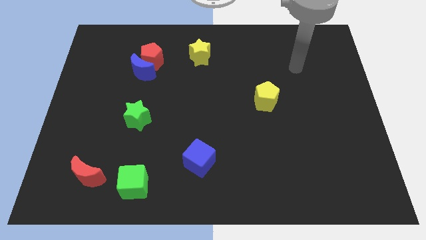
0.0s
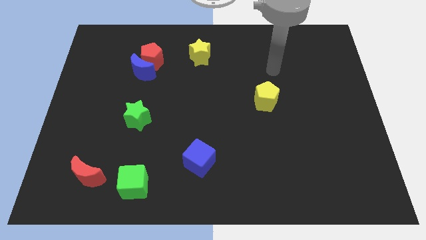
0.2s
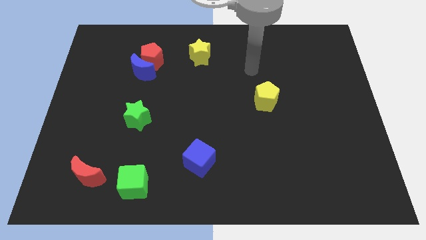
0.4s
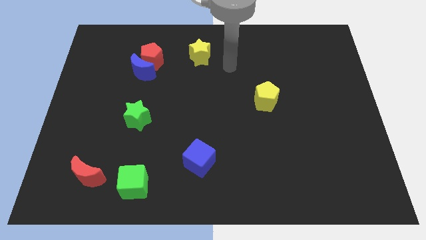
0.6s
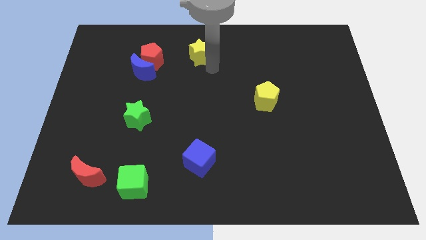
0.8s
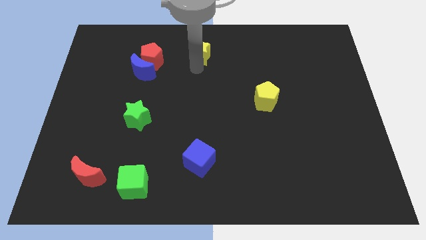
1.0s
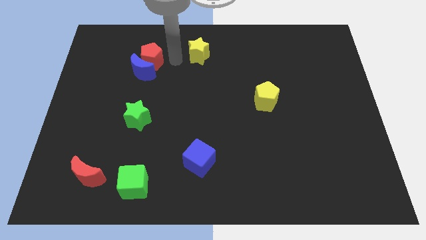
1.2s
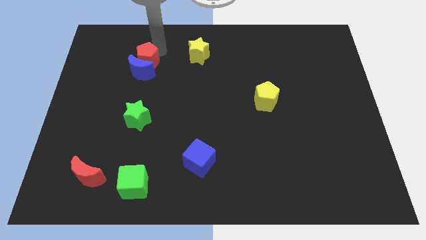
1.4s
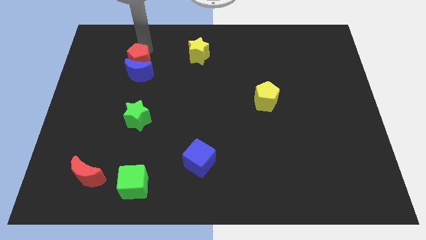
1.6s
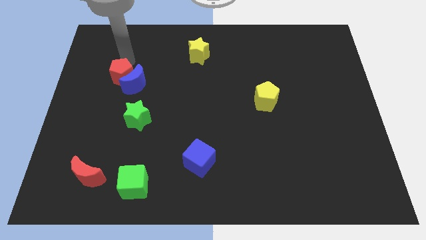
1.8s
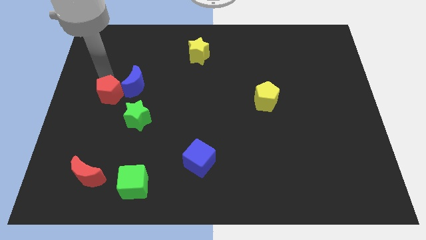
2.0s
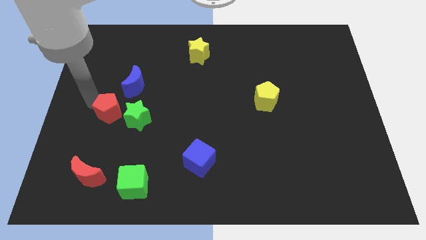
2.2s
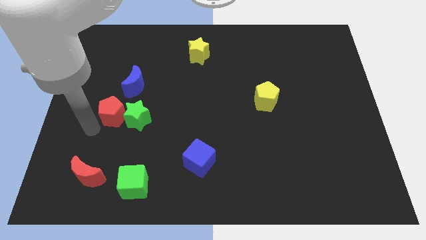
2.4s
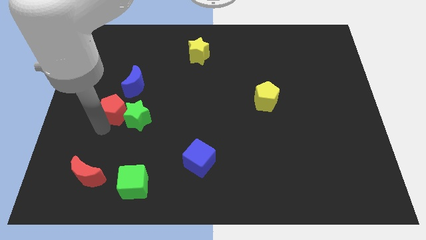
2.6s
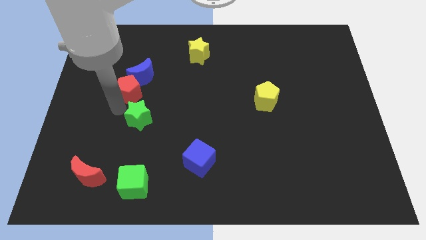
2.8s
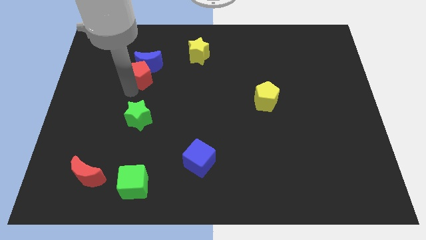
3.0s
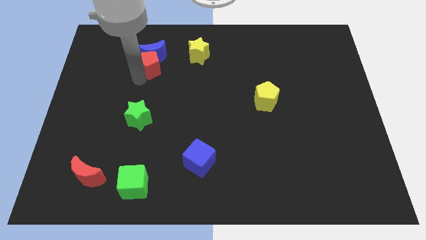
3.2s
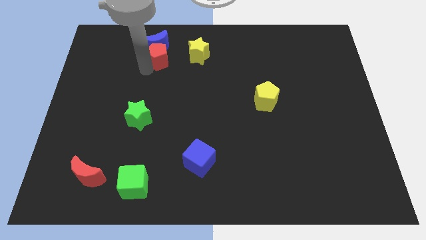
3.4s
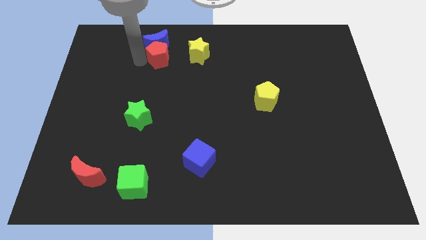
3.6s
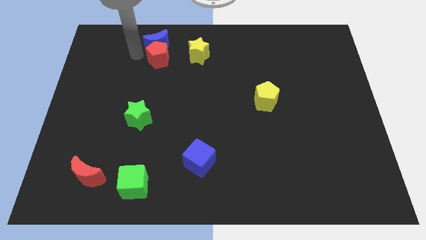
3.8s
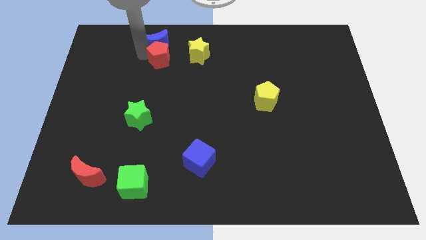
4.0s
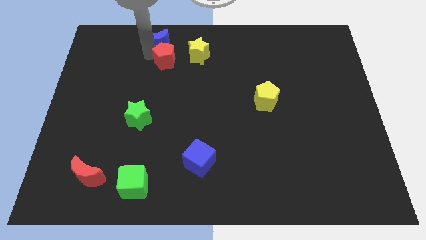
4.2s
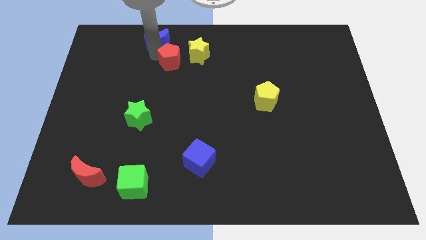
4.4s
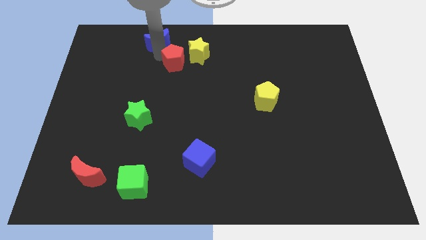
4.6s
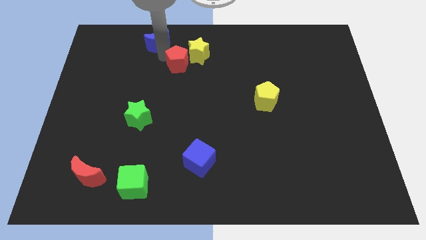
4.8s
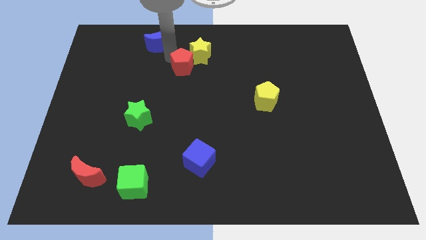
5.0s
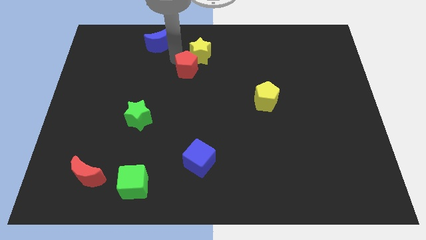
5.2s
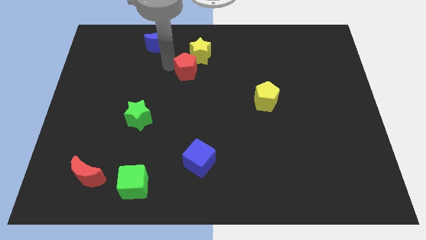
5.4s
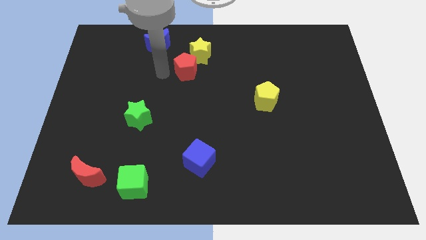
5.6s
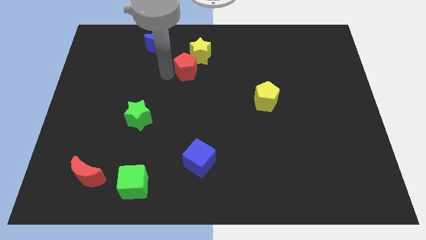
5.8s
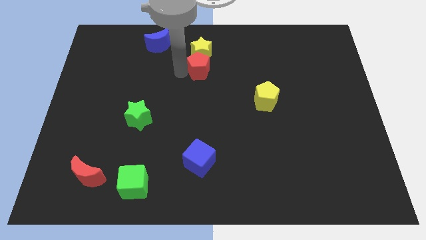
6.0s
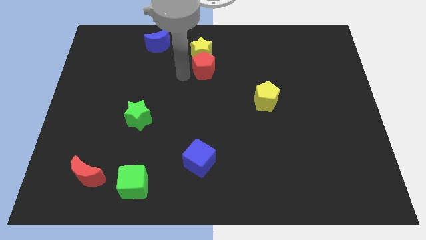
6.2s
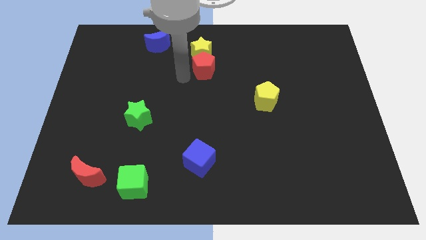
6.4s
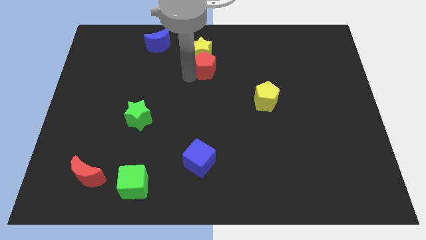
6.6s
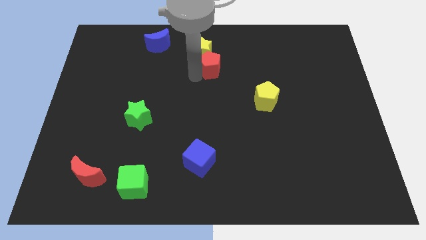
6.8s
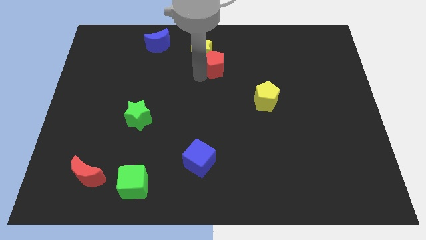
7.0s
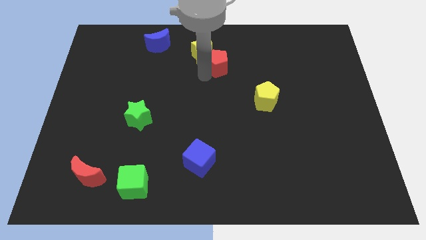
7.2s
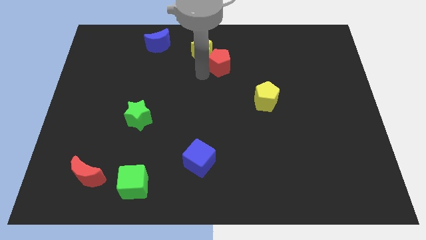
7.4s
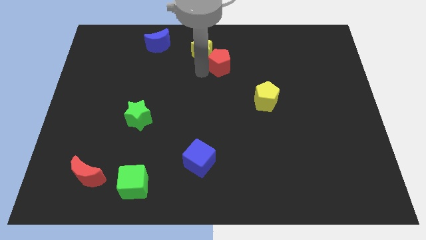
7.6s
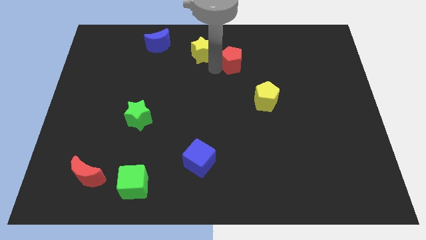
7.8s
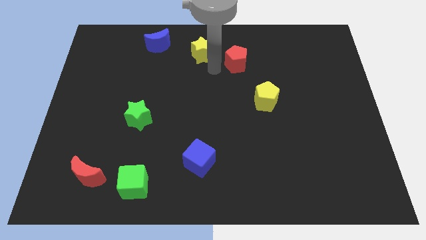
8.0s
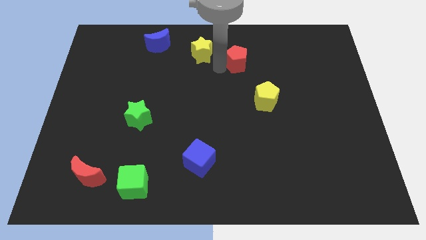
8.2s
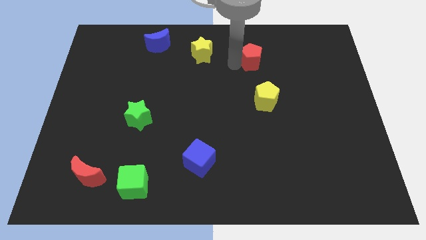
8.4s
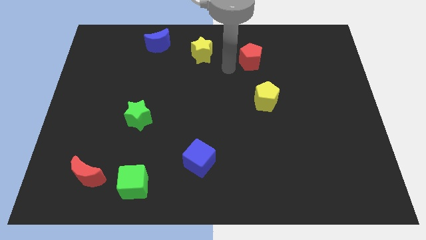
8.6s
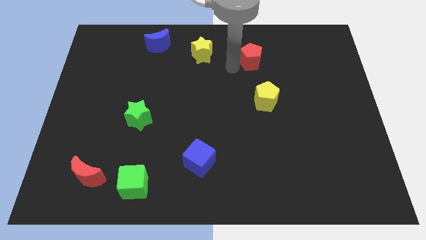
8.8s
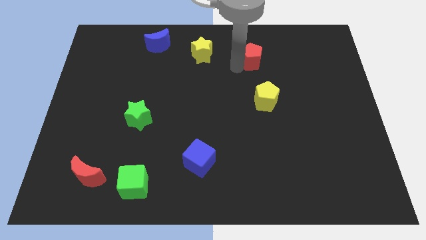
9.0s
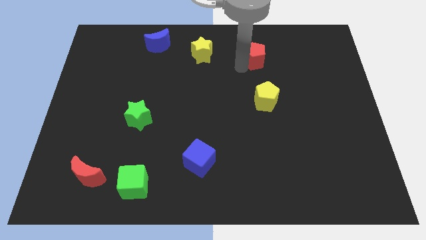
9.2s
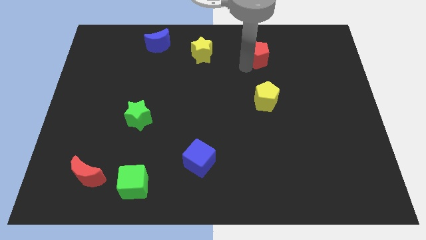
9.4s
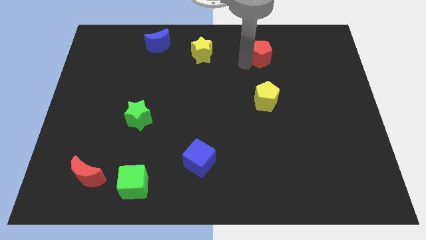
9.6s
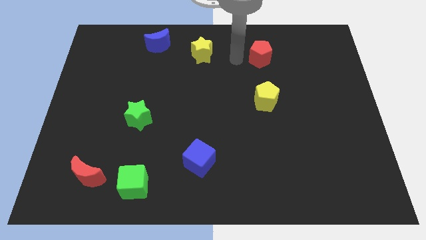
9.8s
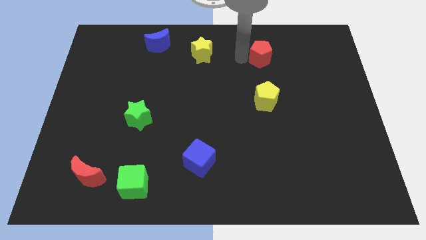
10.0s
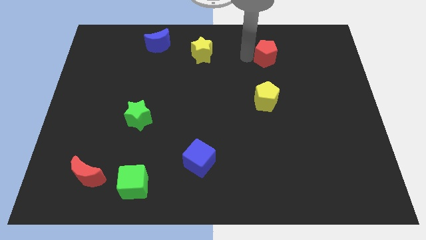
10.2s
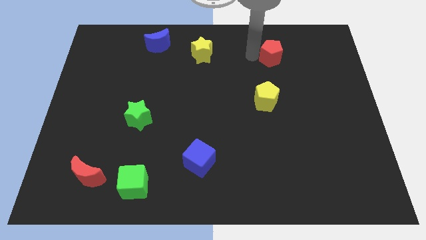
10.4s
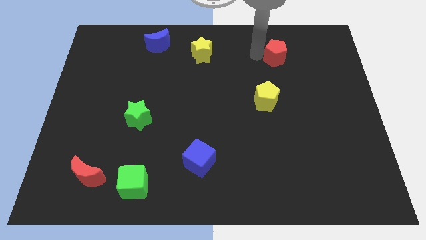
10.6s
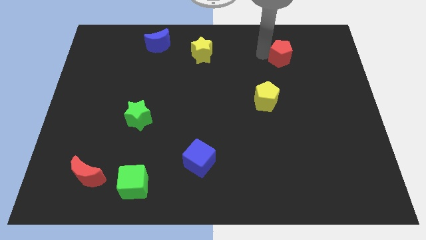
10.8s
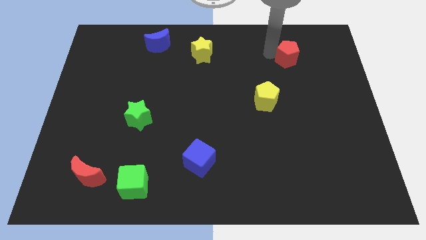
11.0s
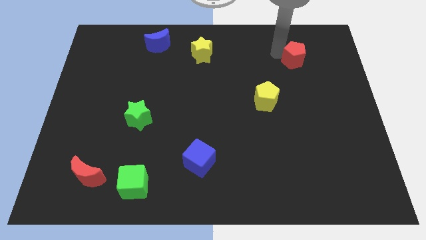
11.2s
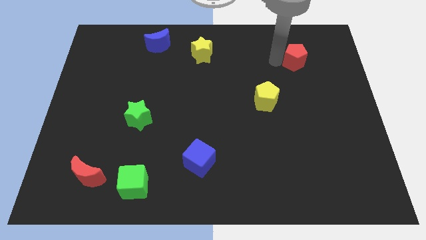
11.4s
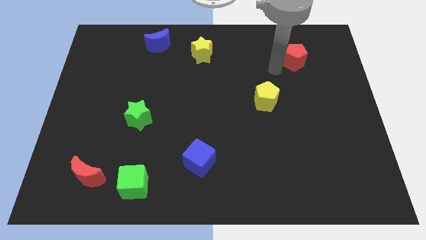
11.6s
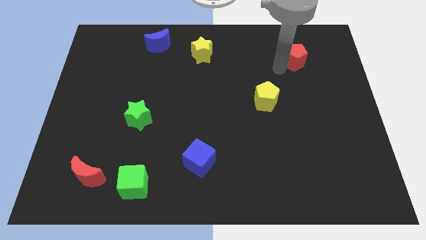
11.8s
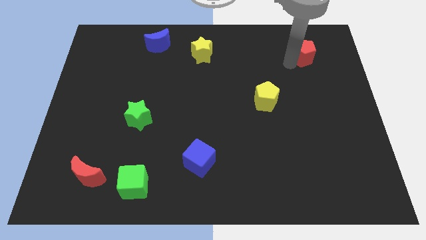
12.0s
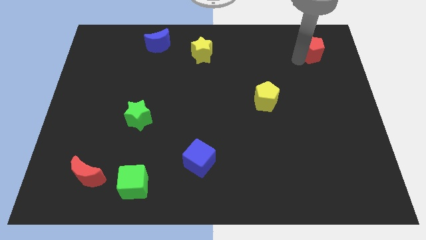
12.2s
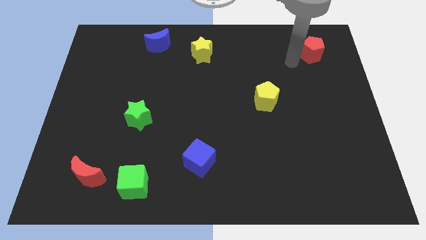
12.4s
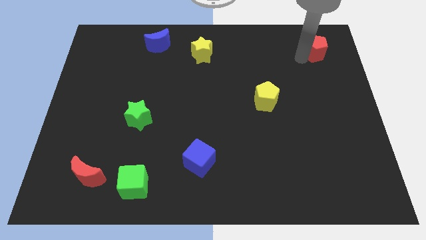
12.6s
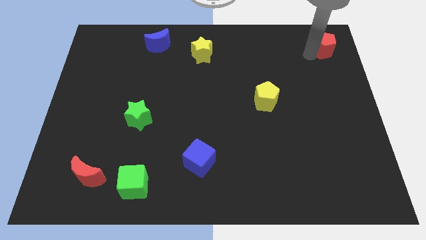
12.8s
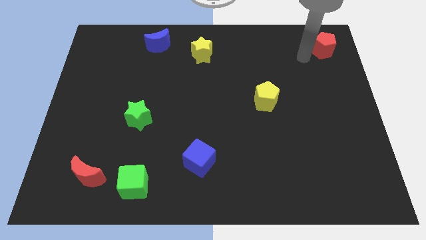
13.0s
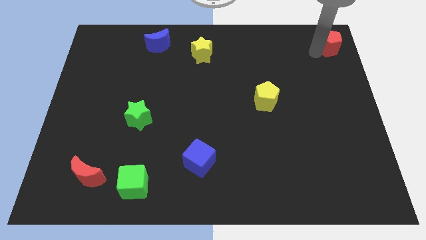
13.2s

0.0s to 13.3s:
slide the red pentagon to the top right corner
